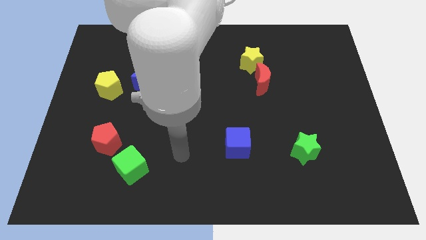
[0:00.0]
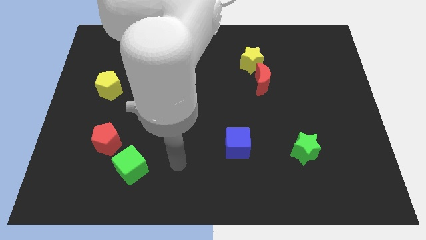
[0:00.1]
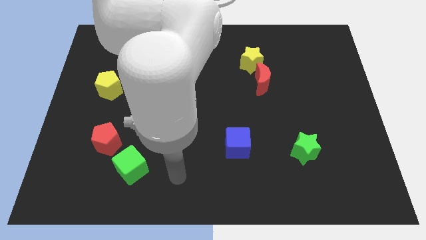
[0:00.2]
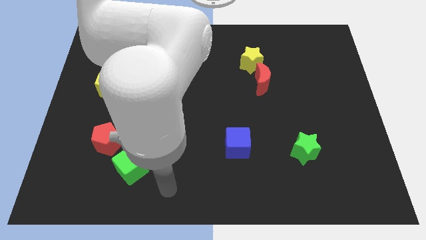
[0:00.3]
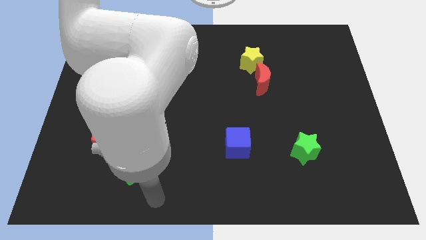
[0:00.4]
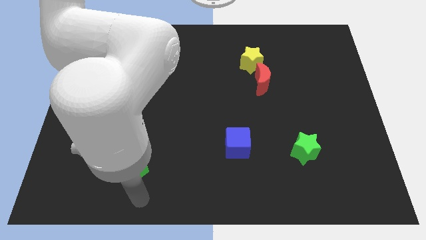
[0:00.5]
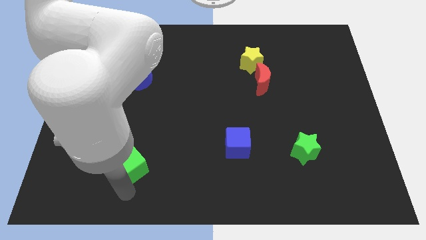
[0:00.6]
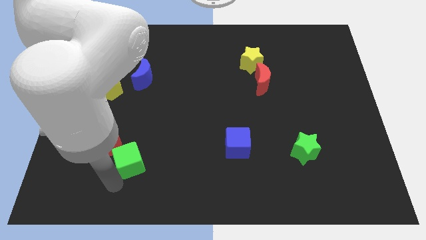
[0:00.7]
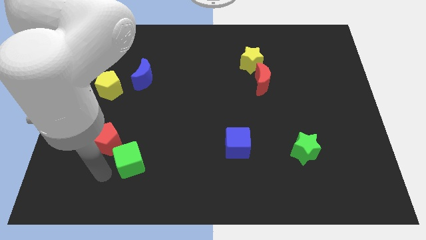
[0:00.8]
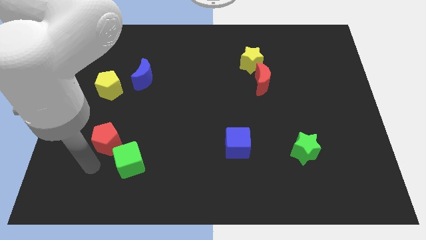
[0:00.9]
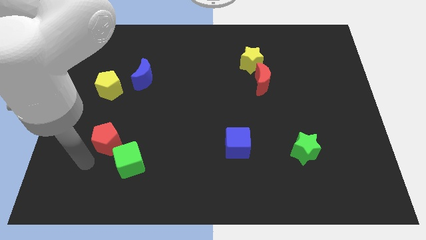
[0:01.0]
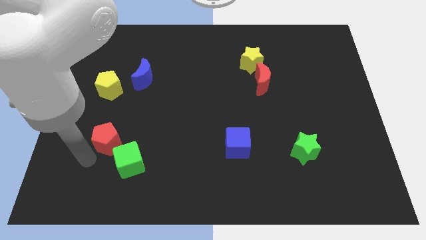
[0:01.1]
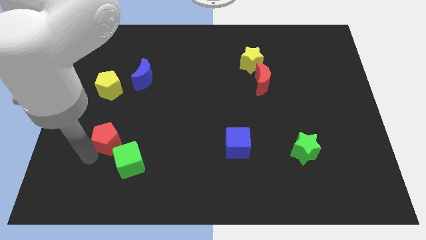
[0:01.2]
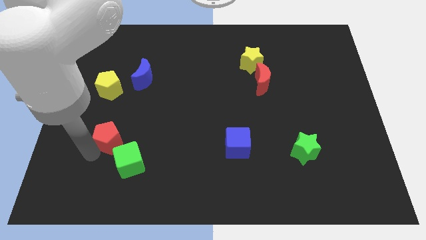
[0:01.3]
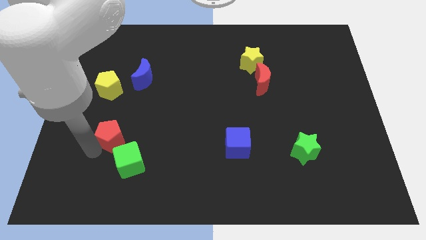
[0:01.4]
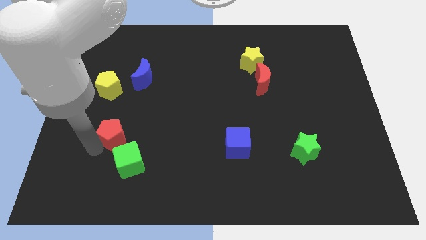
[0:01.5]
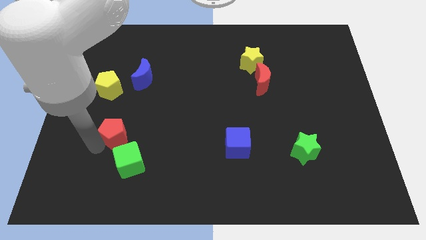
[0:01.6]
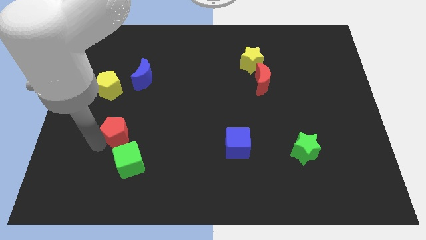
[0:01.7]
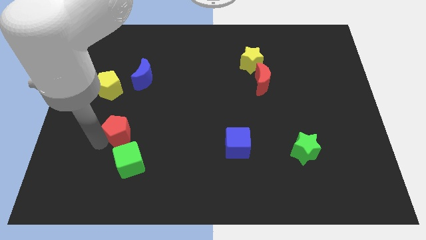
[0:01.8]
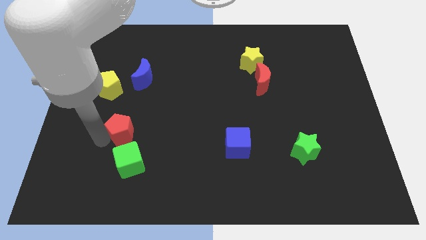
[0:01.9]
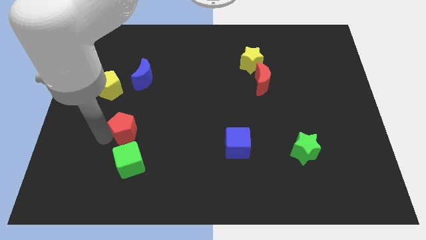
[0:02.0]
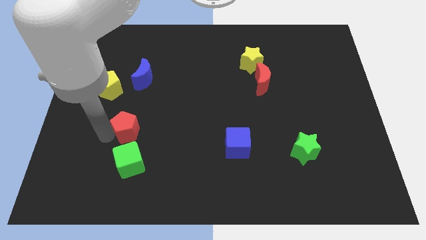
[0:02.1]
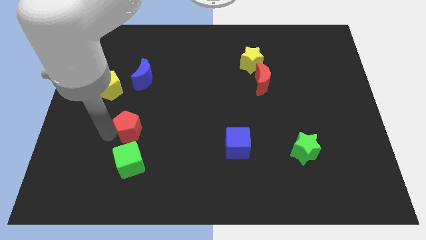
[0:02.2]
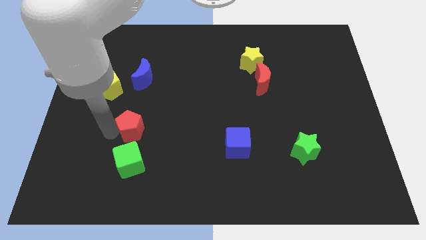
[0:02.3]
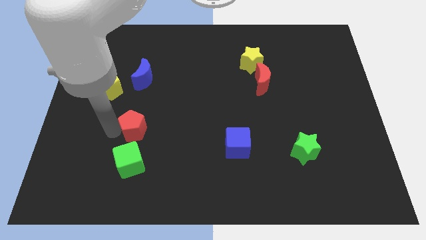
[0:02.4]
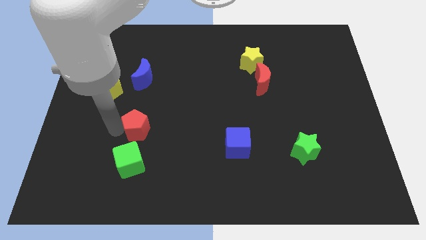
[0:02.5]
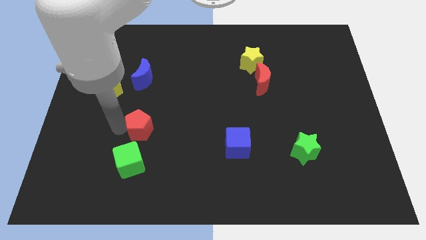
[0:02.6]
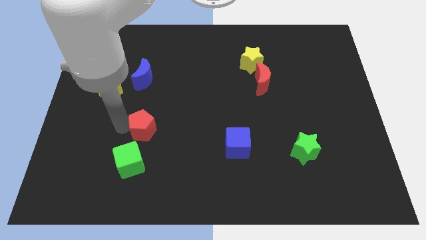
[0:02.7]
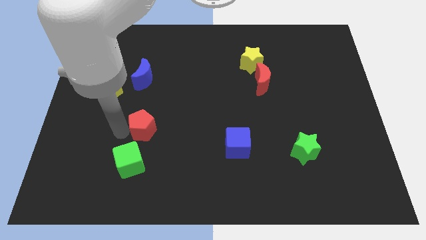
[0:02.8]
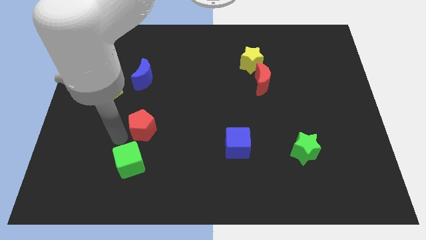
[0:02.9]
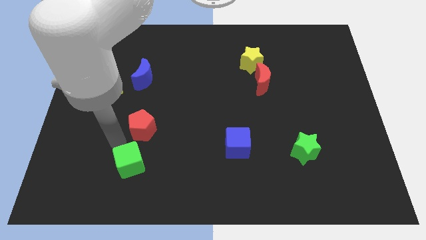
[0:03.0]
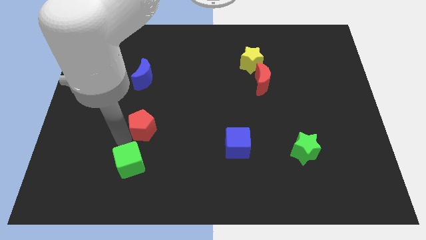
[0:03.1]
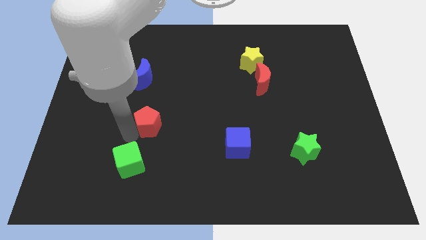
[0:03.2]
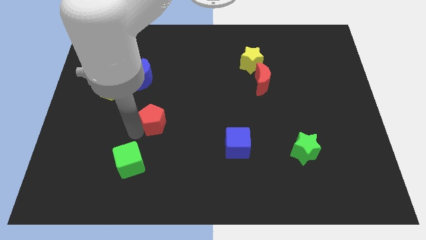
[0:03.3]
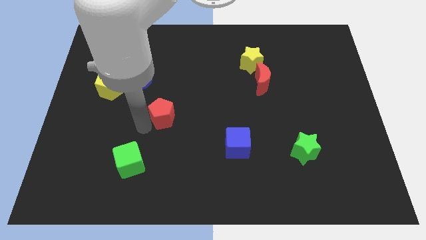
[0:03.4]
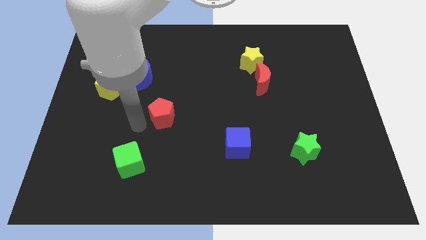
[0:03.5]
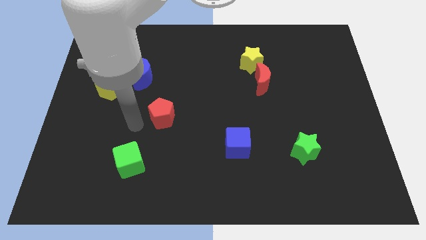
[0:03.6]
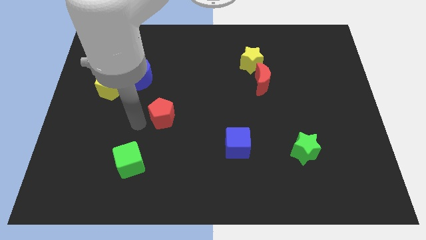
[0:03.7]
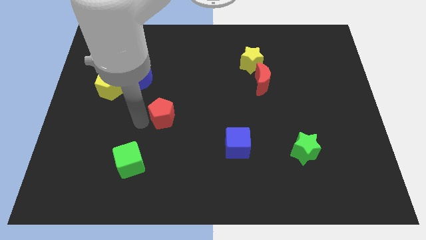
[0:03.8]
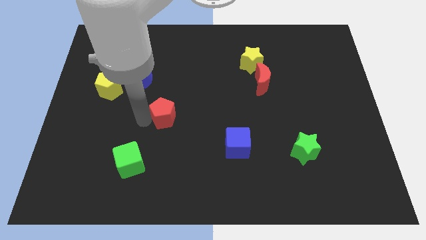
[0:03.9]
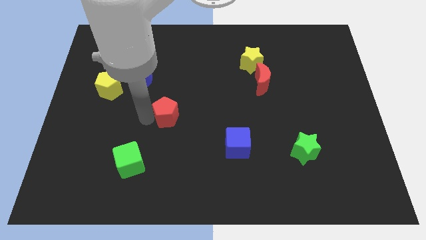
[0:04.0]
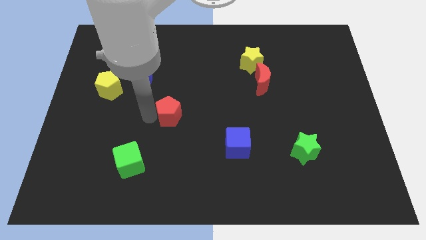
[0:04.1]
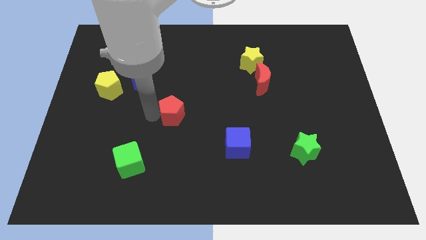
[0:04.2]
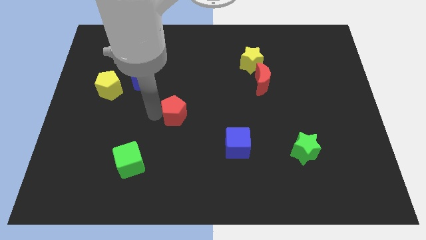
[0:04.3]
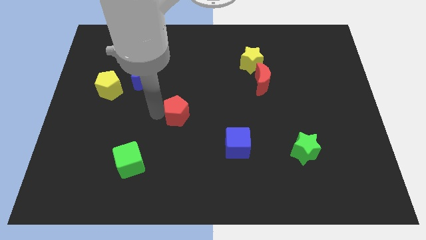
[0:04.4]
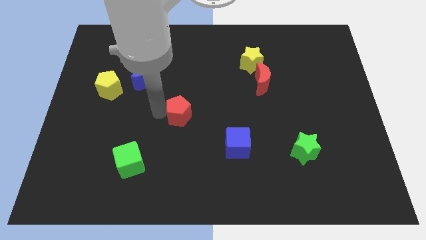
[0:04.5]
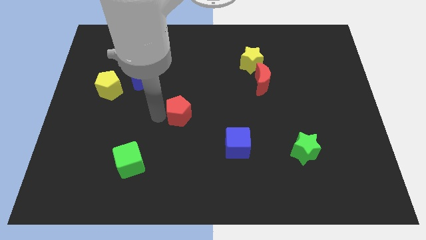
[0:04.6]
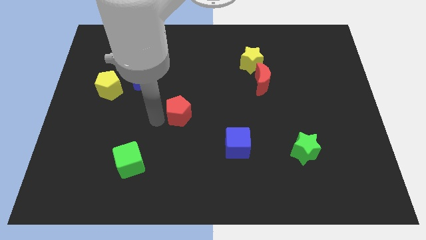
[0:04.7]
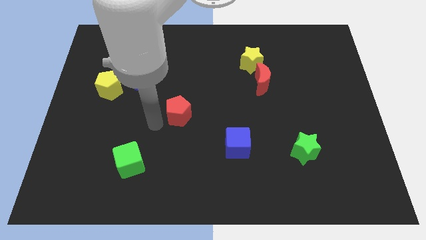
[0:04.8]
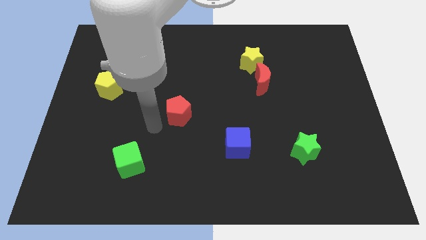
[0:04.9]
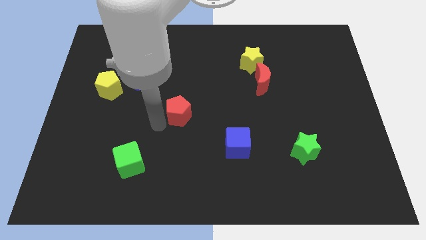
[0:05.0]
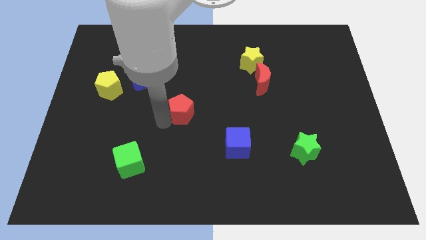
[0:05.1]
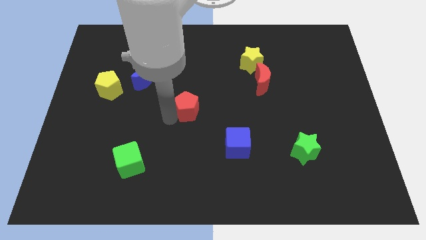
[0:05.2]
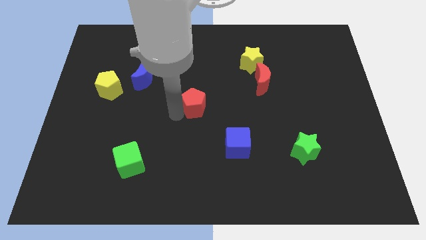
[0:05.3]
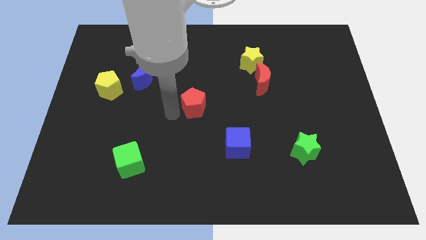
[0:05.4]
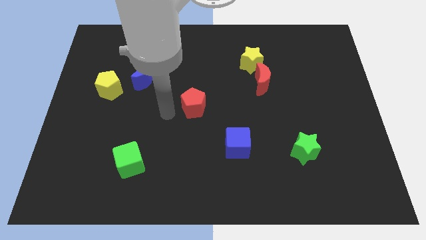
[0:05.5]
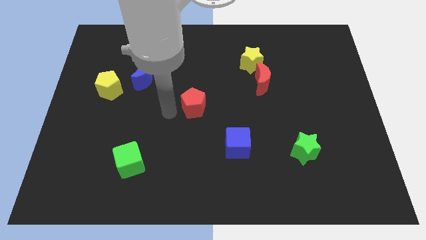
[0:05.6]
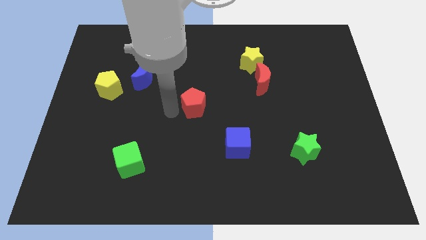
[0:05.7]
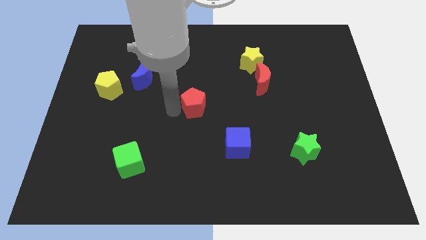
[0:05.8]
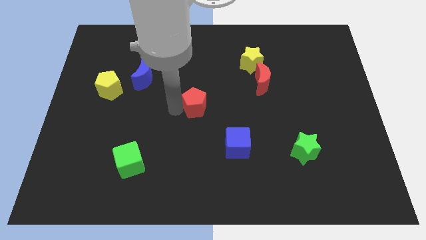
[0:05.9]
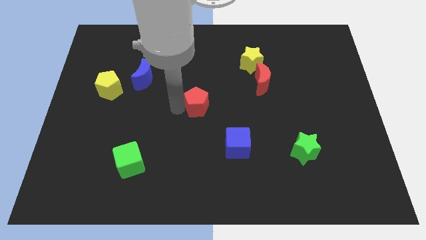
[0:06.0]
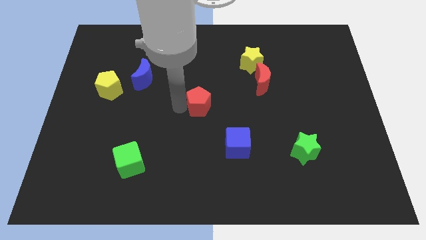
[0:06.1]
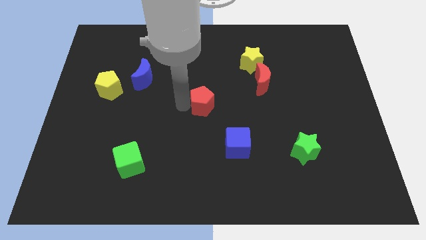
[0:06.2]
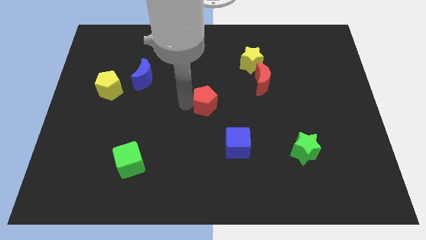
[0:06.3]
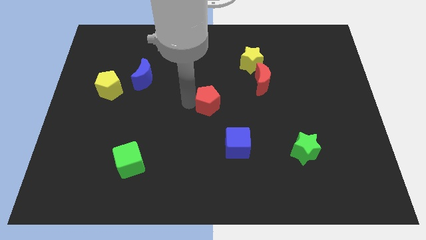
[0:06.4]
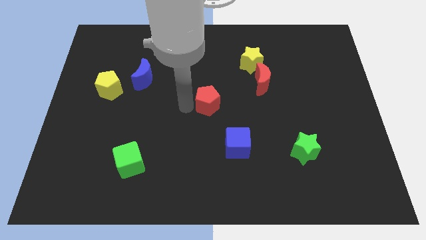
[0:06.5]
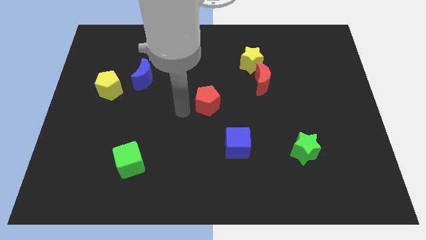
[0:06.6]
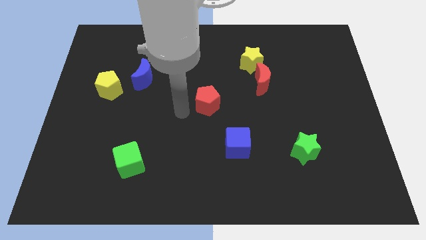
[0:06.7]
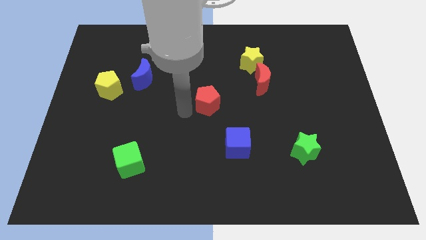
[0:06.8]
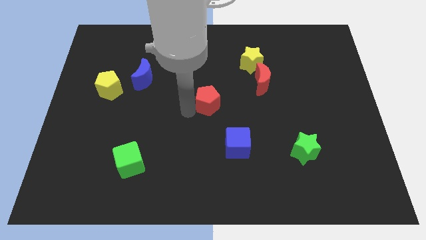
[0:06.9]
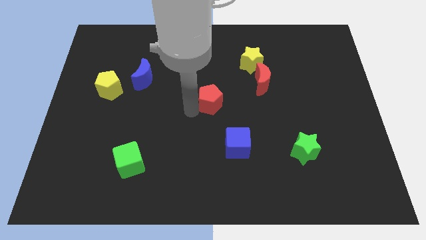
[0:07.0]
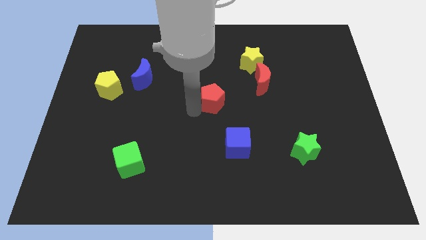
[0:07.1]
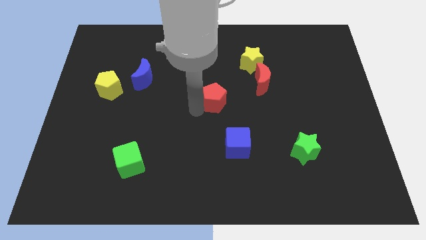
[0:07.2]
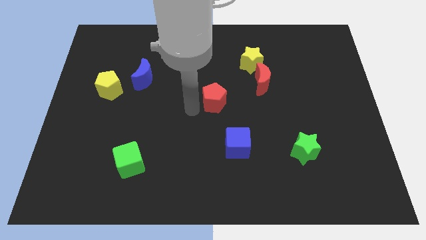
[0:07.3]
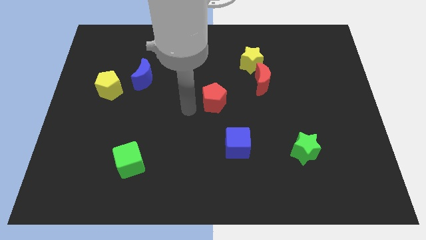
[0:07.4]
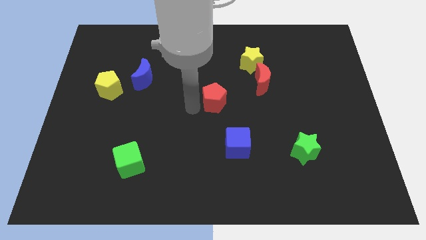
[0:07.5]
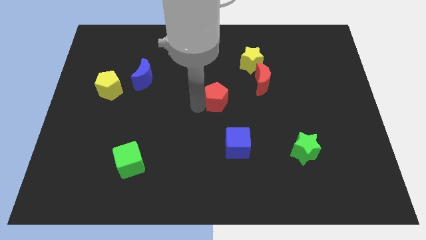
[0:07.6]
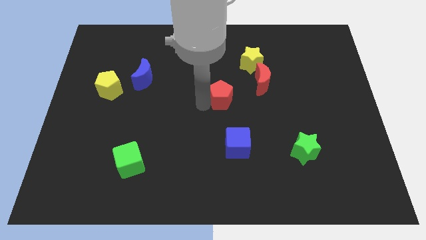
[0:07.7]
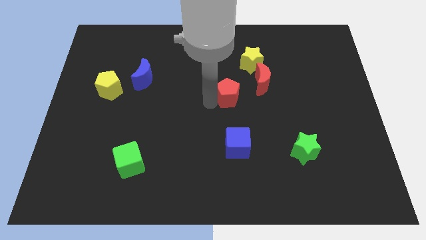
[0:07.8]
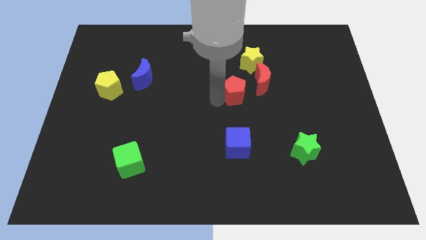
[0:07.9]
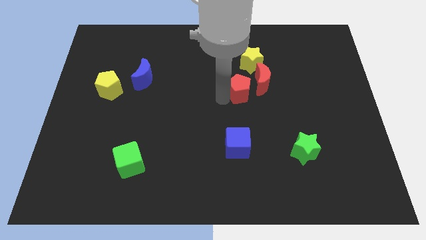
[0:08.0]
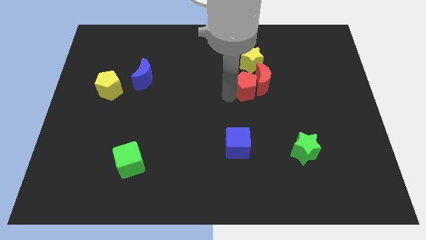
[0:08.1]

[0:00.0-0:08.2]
push the red pentagon to the red moon
